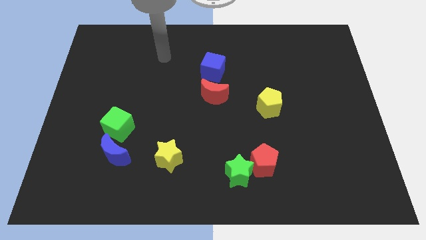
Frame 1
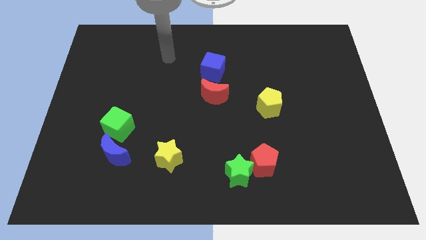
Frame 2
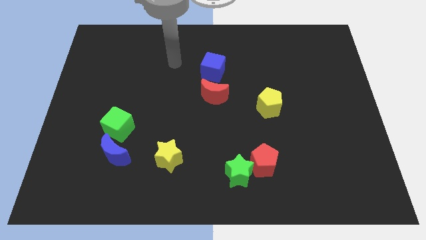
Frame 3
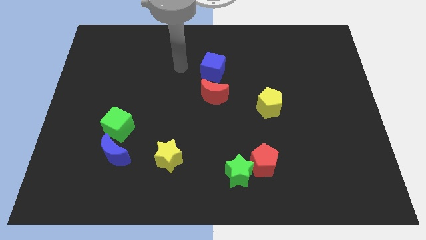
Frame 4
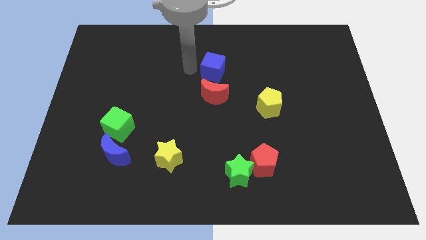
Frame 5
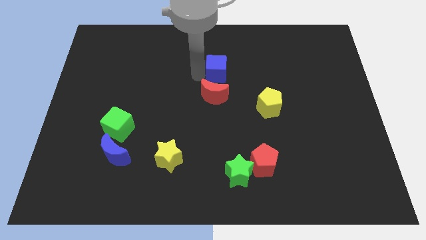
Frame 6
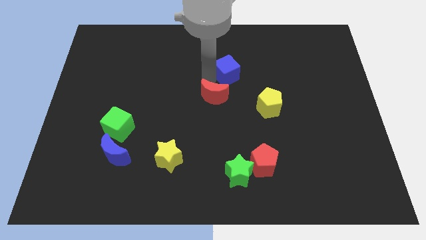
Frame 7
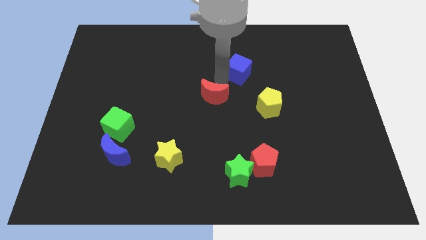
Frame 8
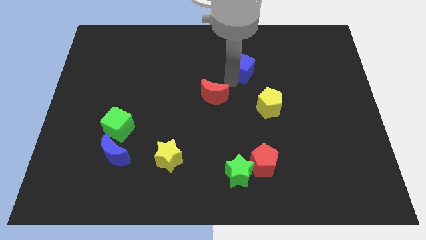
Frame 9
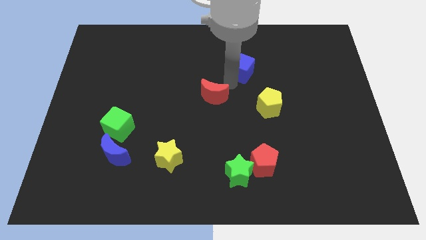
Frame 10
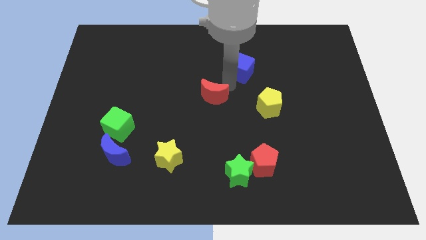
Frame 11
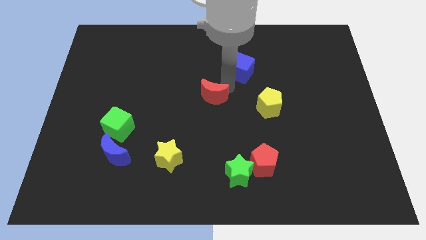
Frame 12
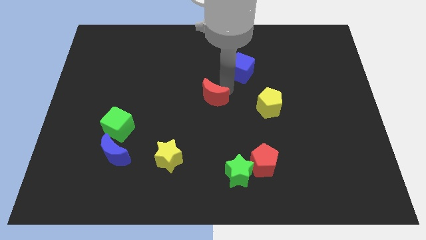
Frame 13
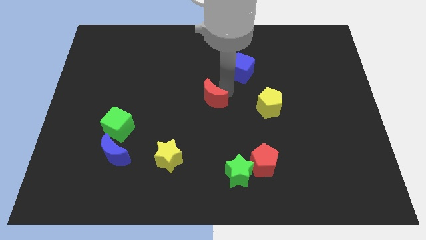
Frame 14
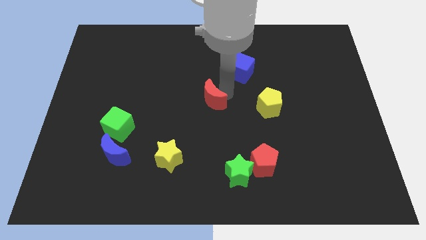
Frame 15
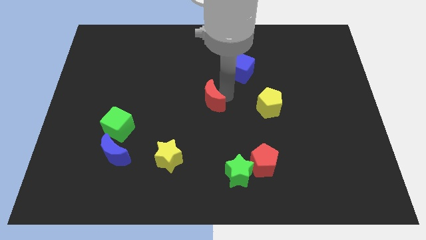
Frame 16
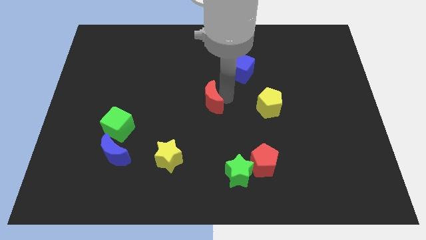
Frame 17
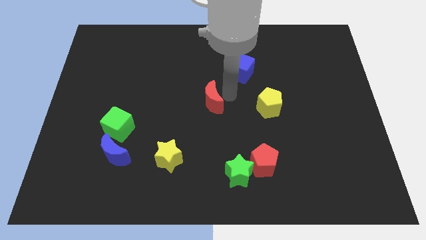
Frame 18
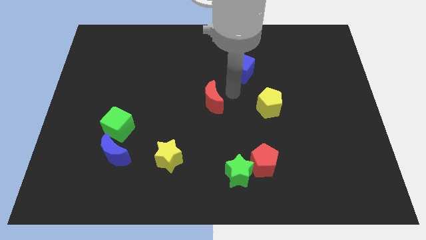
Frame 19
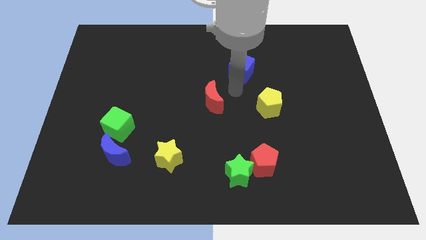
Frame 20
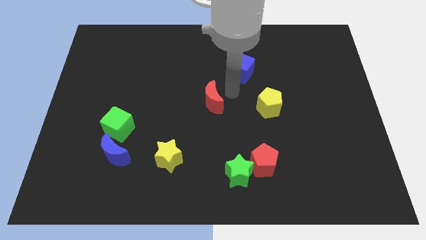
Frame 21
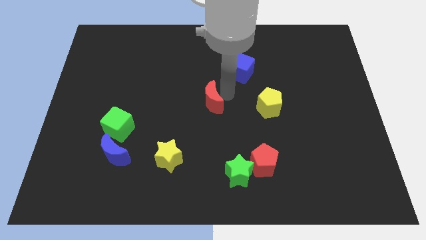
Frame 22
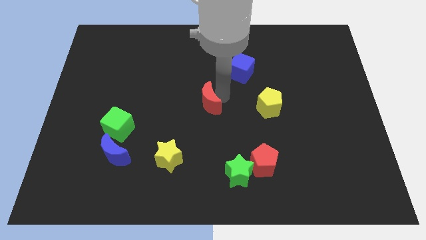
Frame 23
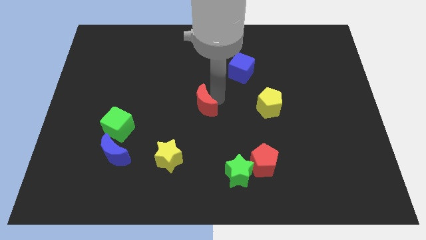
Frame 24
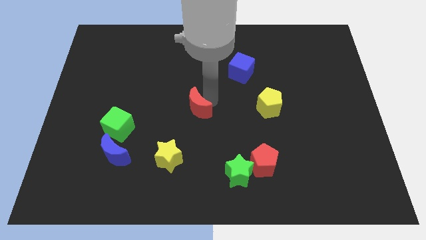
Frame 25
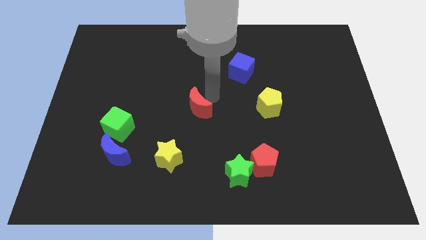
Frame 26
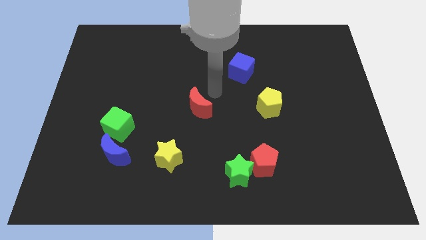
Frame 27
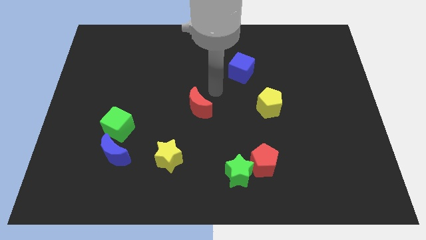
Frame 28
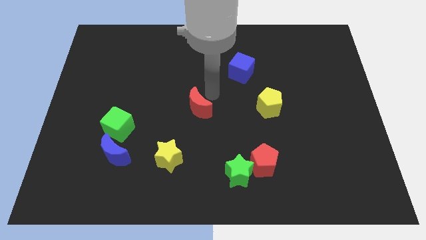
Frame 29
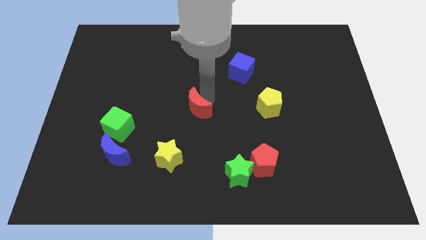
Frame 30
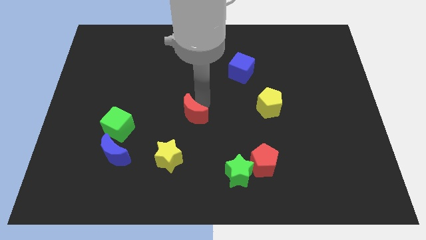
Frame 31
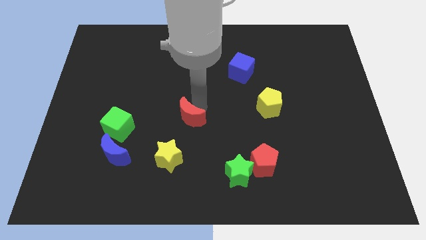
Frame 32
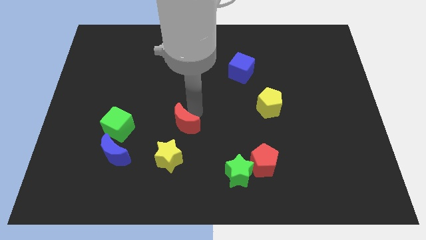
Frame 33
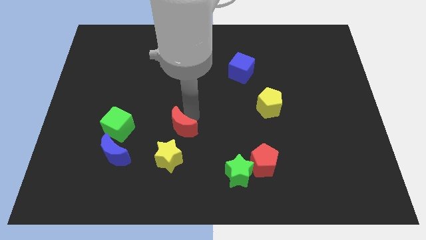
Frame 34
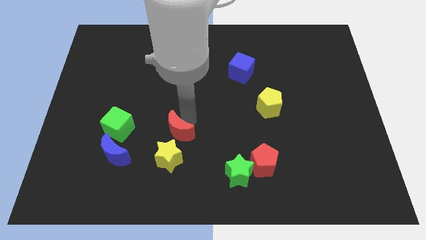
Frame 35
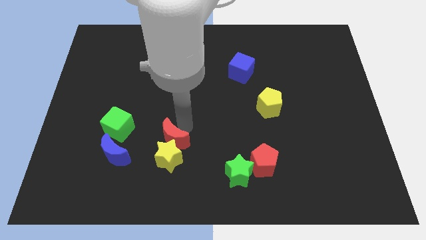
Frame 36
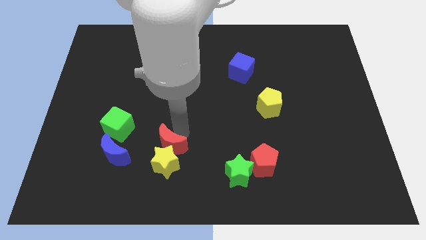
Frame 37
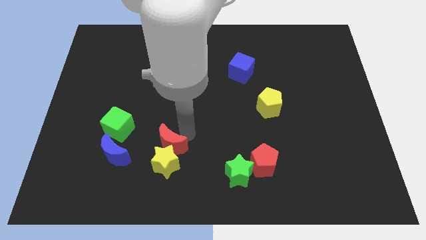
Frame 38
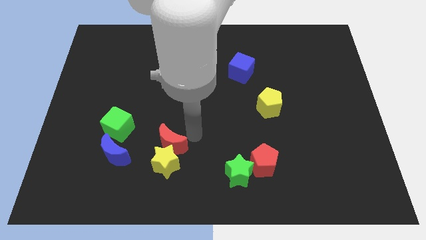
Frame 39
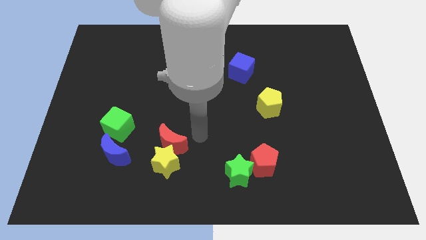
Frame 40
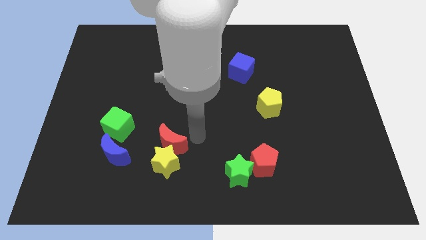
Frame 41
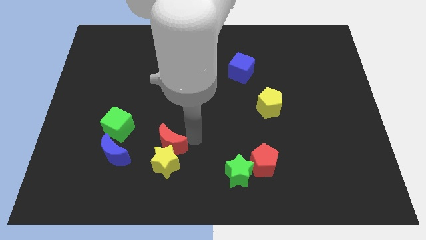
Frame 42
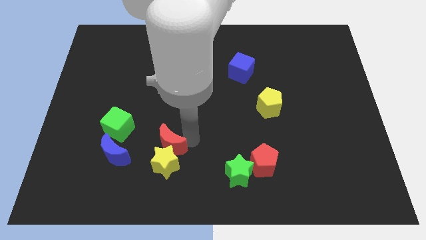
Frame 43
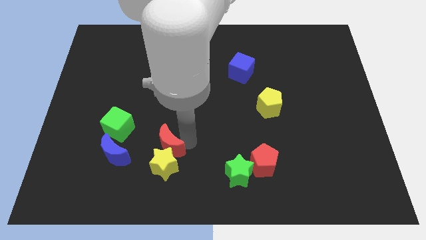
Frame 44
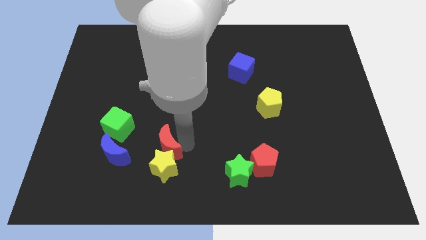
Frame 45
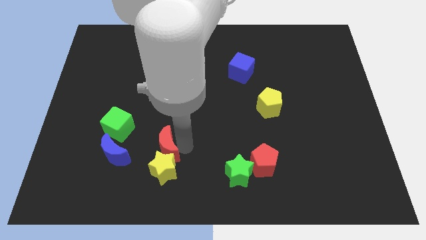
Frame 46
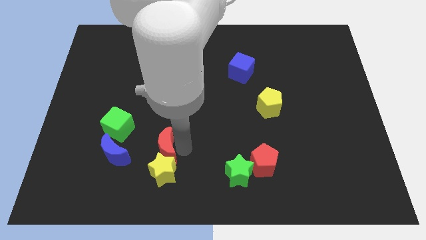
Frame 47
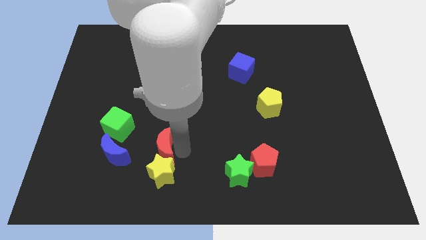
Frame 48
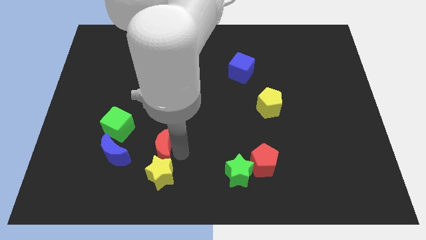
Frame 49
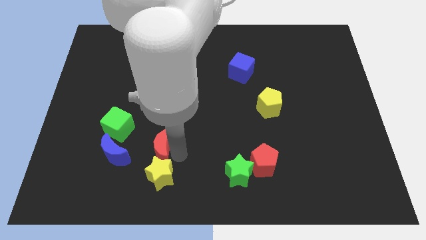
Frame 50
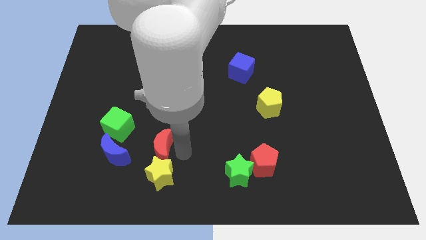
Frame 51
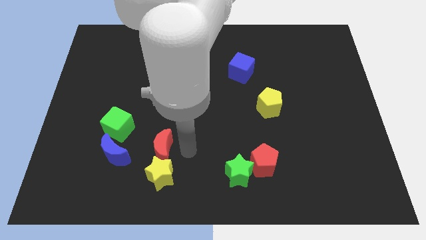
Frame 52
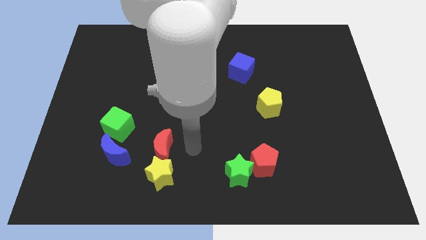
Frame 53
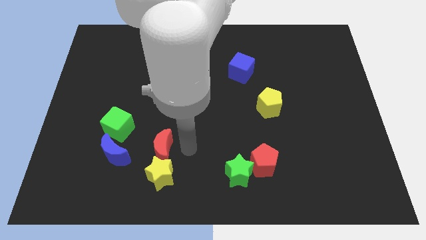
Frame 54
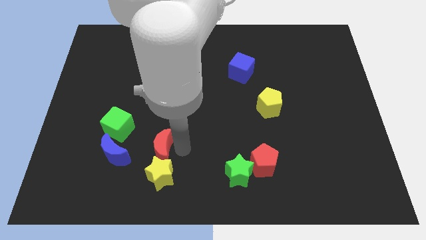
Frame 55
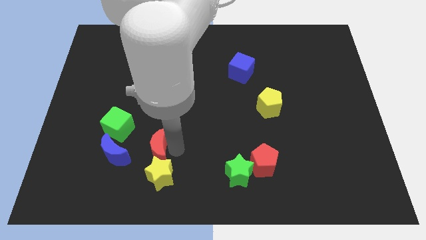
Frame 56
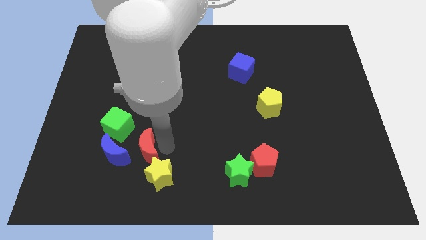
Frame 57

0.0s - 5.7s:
slide the red moon diagonally downwards and to the left

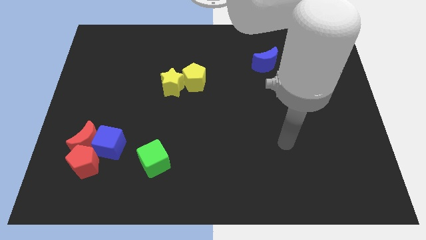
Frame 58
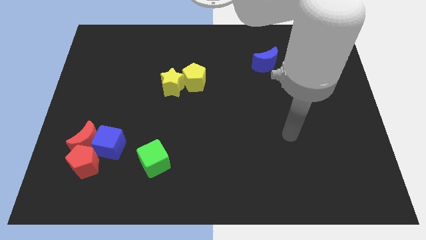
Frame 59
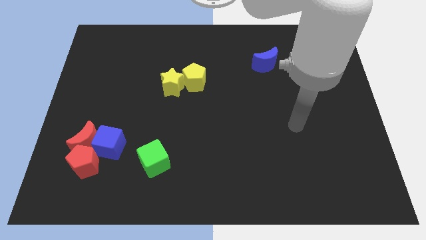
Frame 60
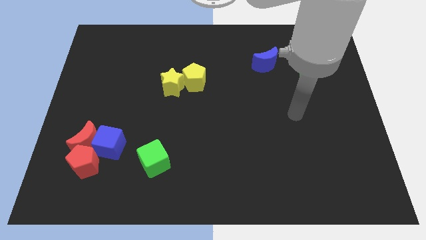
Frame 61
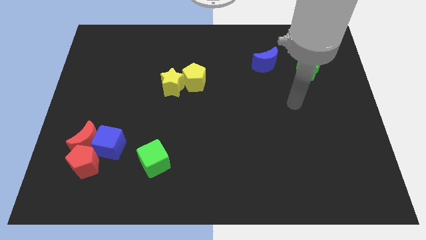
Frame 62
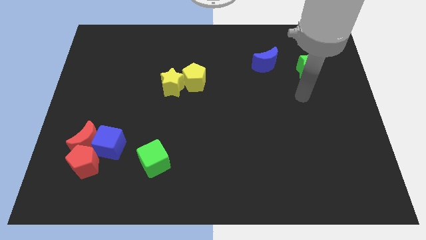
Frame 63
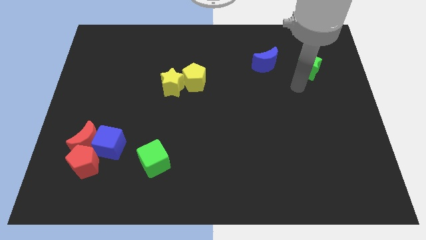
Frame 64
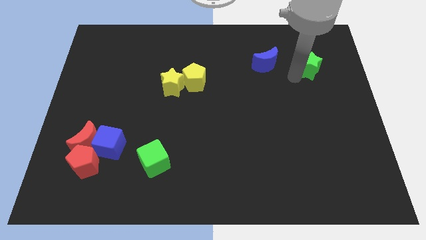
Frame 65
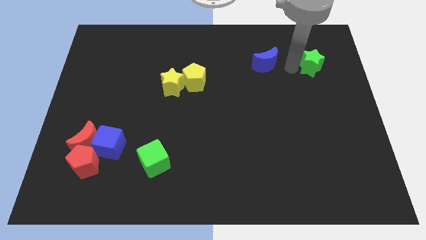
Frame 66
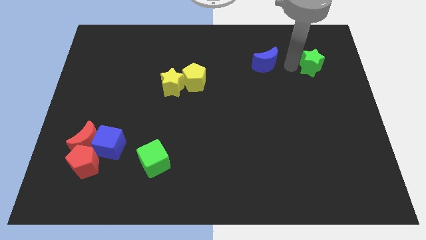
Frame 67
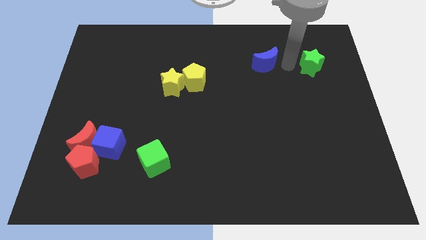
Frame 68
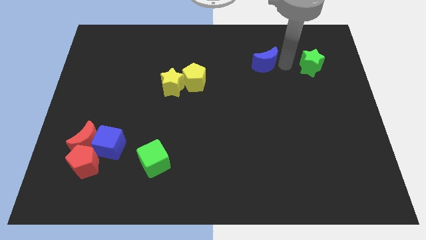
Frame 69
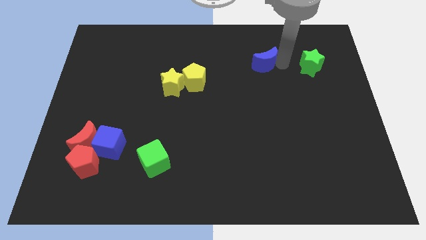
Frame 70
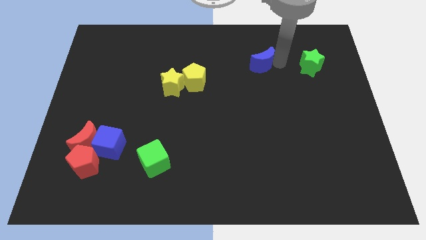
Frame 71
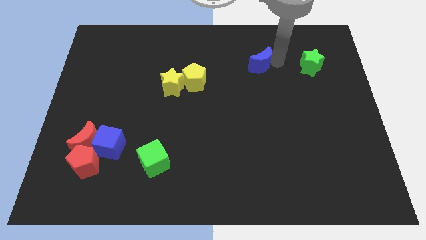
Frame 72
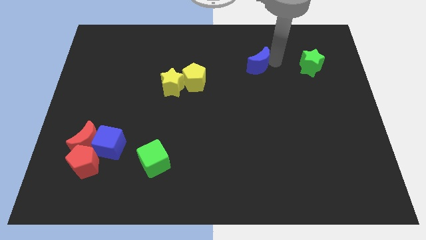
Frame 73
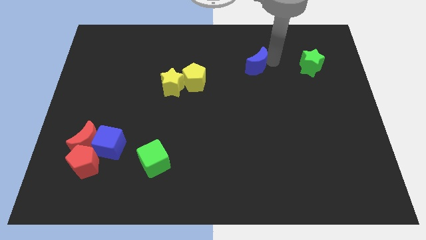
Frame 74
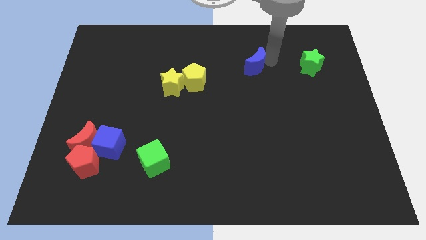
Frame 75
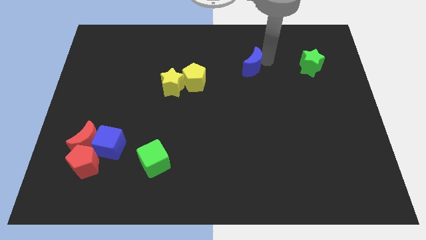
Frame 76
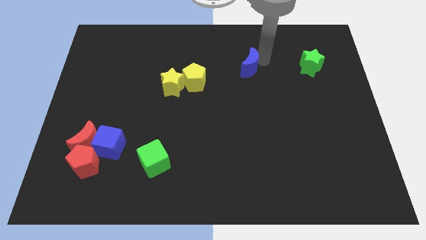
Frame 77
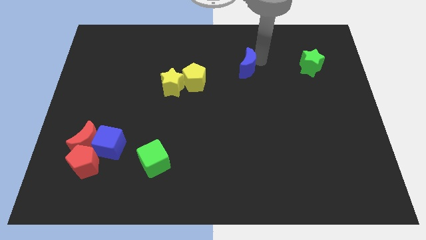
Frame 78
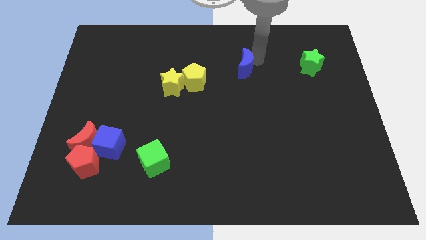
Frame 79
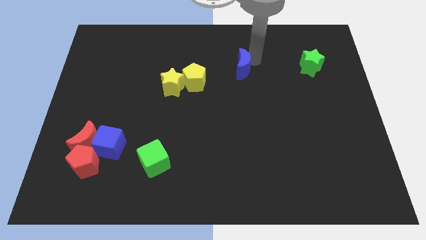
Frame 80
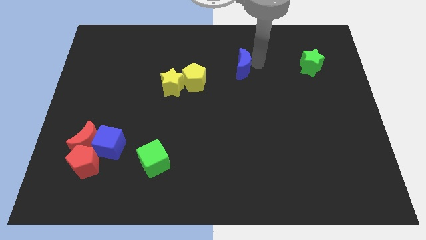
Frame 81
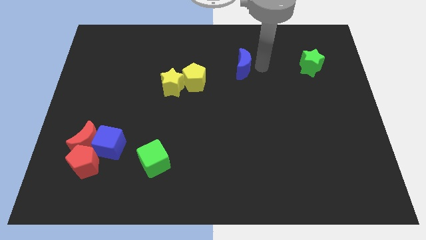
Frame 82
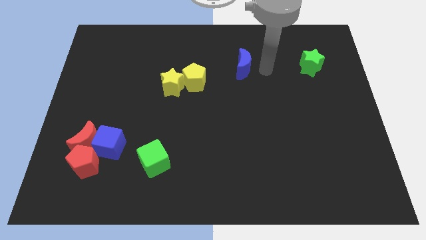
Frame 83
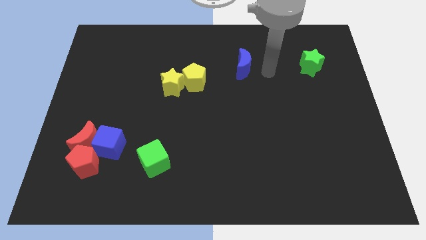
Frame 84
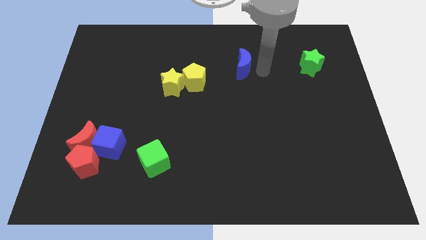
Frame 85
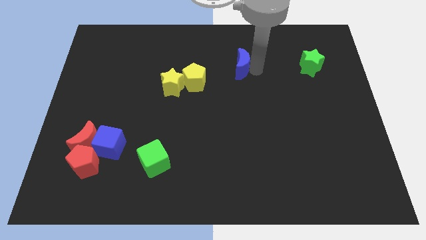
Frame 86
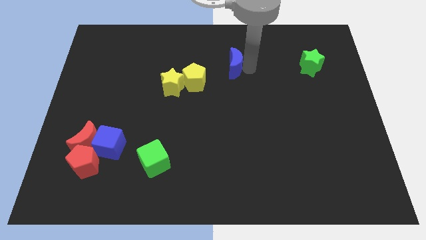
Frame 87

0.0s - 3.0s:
slide the blue moon a little to the left
